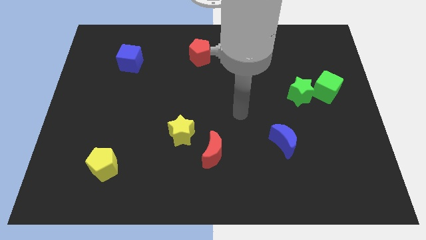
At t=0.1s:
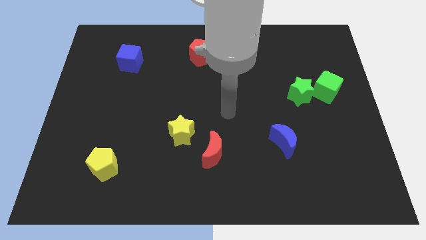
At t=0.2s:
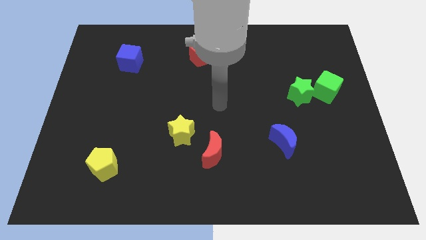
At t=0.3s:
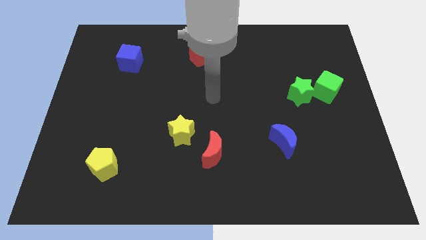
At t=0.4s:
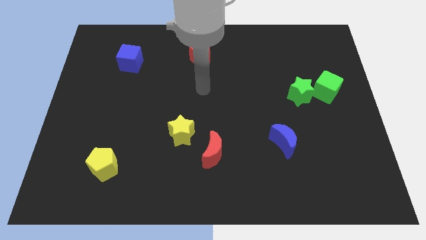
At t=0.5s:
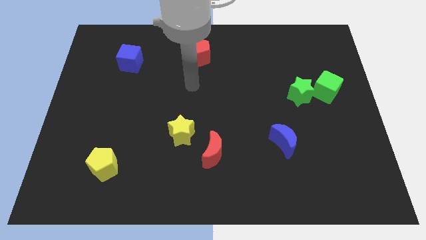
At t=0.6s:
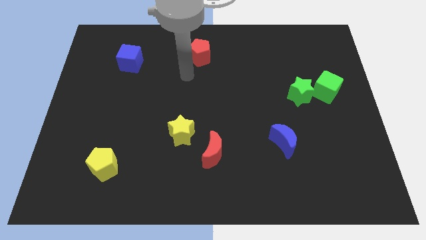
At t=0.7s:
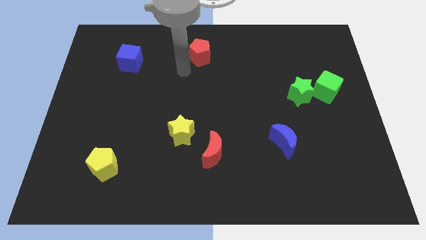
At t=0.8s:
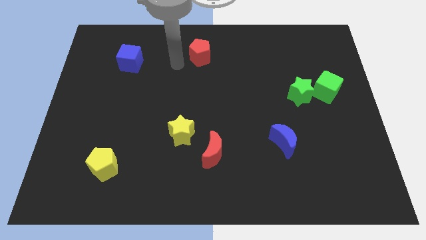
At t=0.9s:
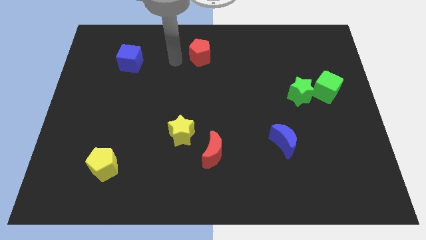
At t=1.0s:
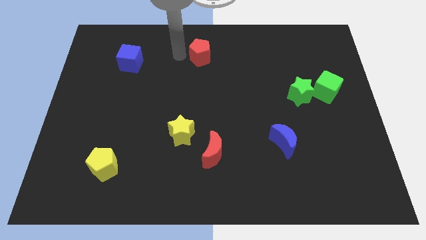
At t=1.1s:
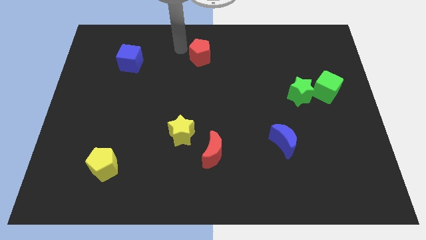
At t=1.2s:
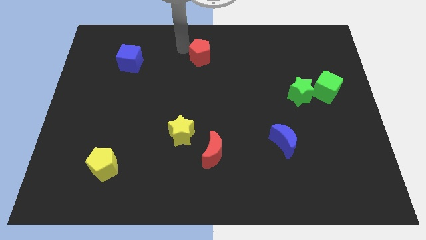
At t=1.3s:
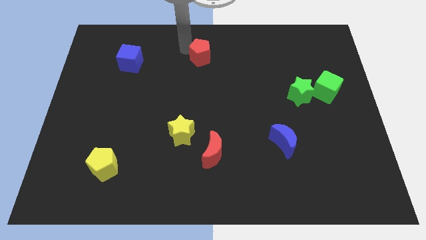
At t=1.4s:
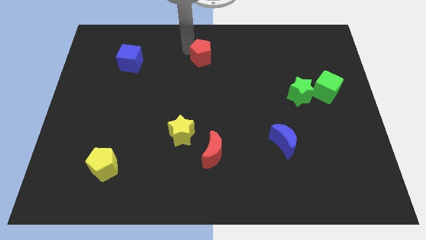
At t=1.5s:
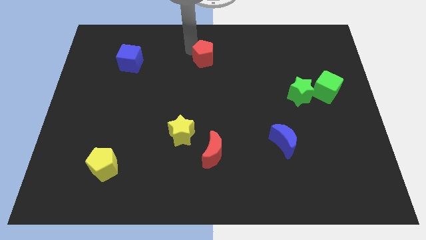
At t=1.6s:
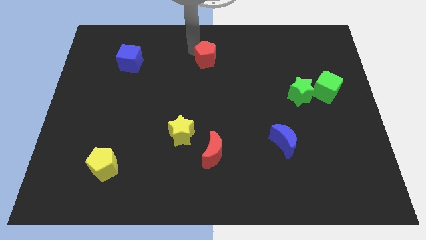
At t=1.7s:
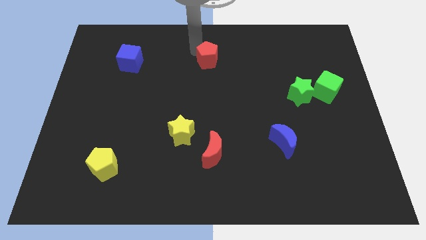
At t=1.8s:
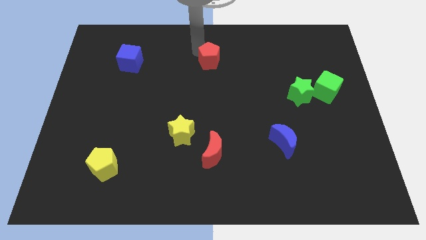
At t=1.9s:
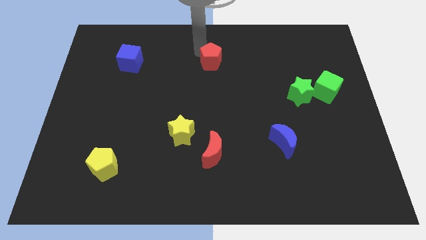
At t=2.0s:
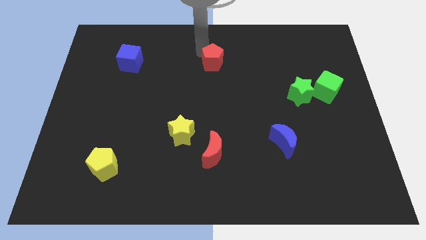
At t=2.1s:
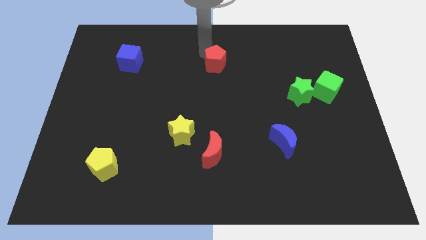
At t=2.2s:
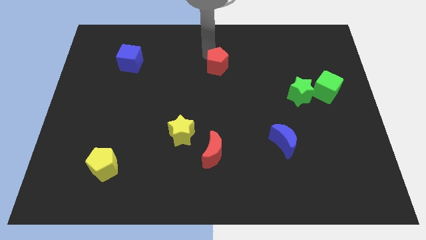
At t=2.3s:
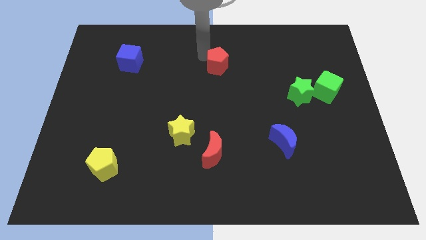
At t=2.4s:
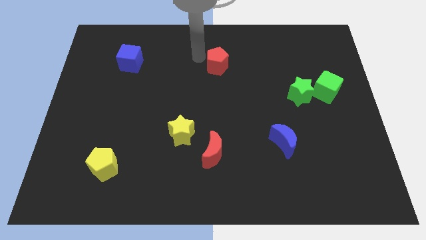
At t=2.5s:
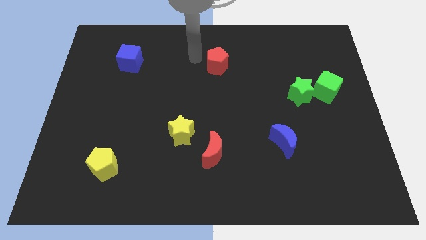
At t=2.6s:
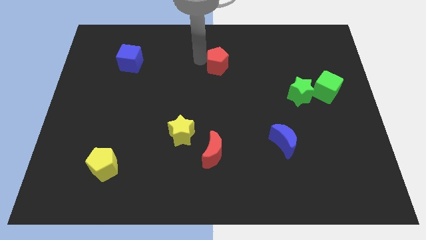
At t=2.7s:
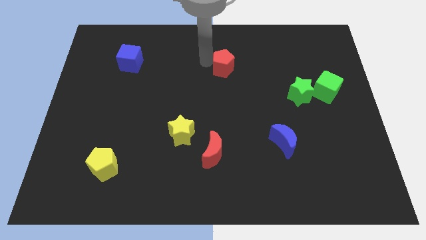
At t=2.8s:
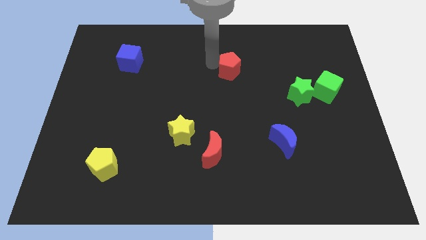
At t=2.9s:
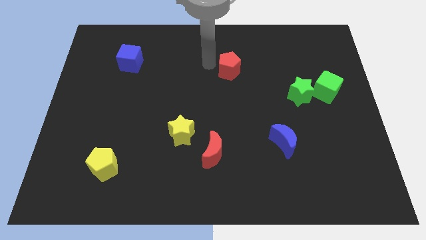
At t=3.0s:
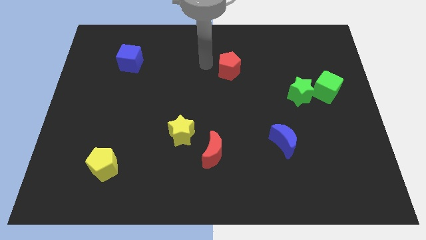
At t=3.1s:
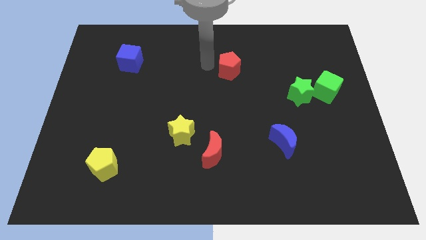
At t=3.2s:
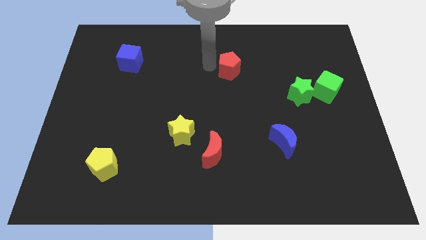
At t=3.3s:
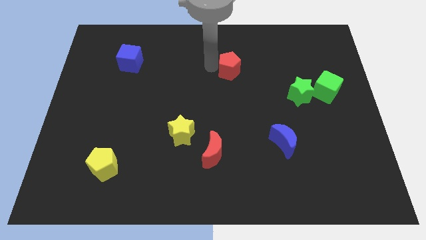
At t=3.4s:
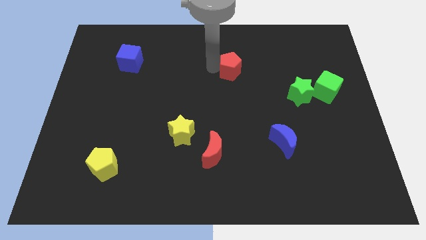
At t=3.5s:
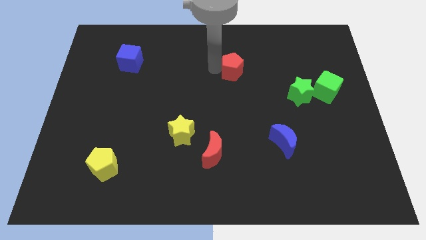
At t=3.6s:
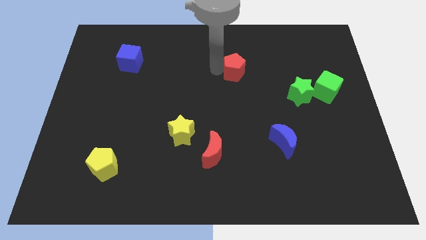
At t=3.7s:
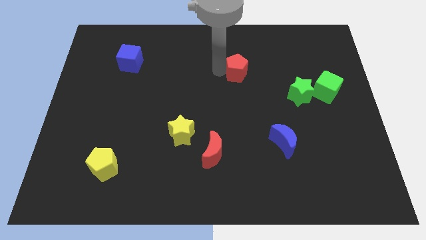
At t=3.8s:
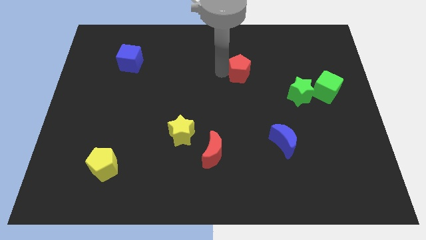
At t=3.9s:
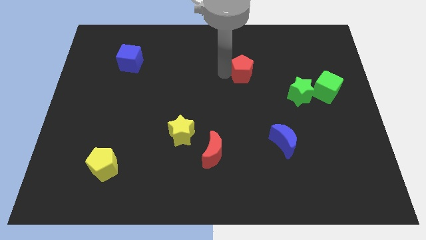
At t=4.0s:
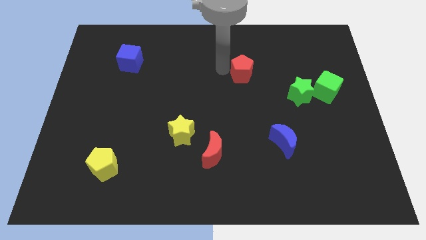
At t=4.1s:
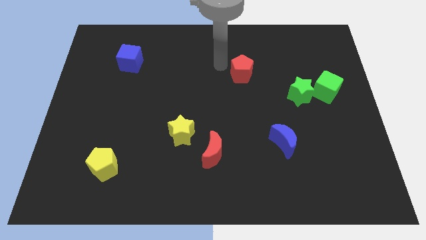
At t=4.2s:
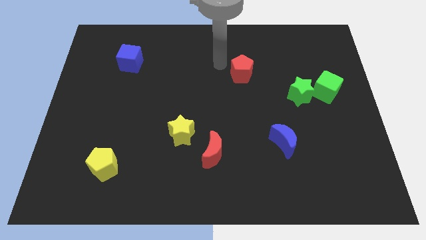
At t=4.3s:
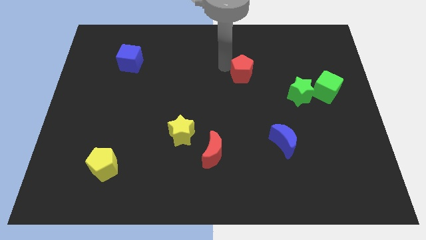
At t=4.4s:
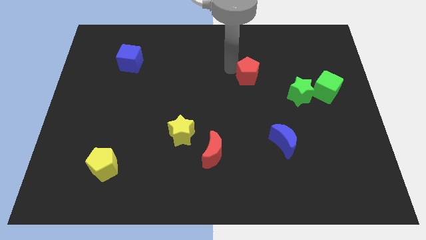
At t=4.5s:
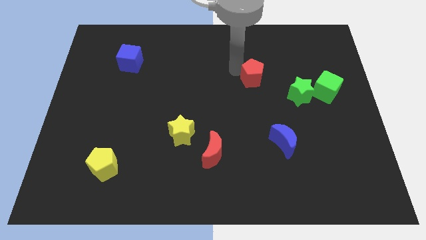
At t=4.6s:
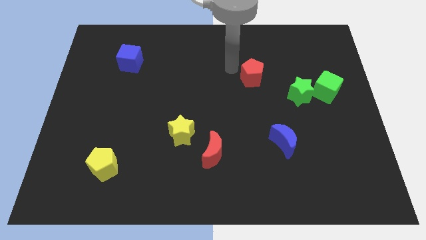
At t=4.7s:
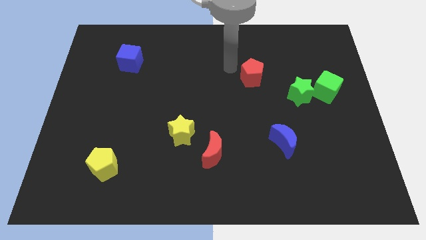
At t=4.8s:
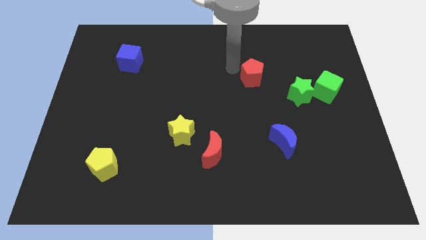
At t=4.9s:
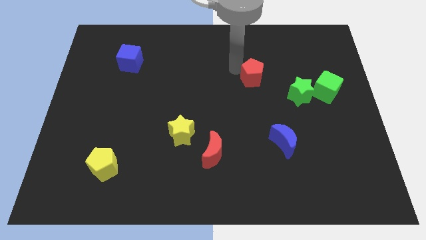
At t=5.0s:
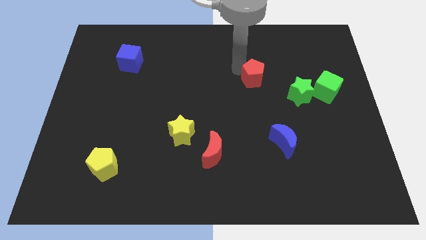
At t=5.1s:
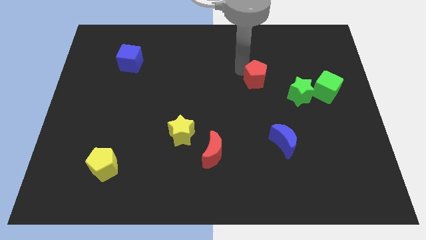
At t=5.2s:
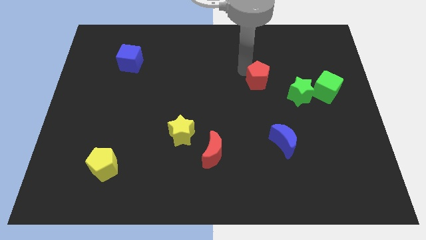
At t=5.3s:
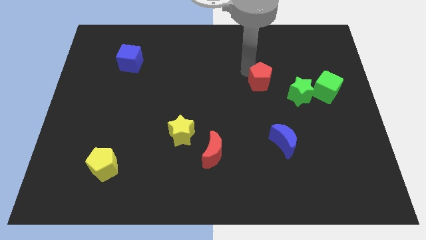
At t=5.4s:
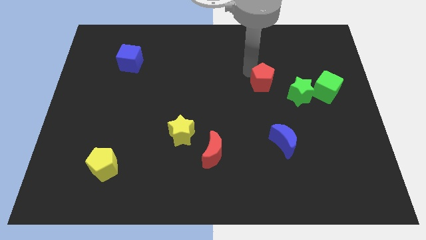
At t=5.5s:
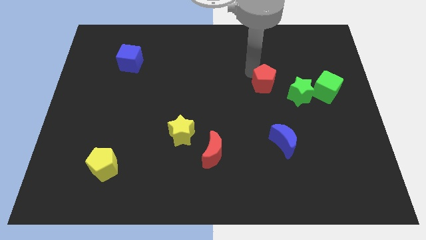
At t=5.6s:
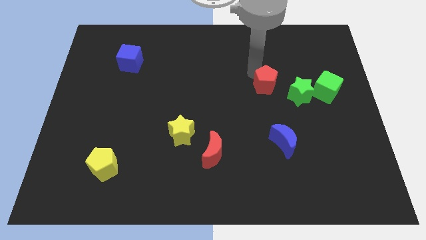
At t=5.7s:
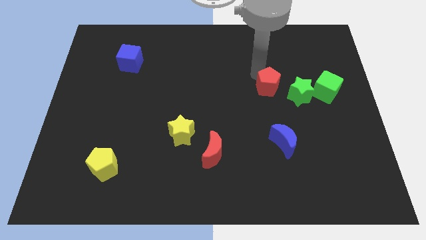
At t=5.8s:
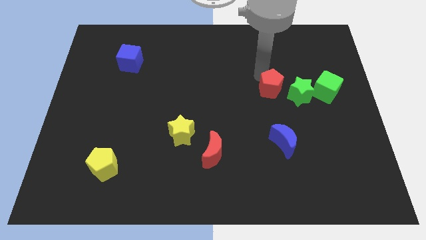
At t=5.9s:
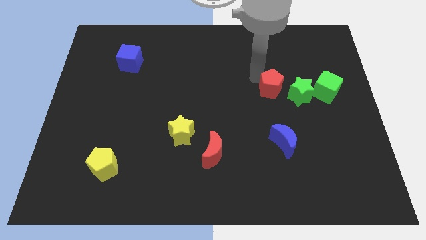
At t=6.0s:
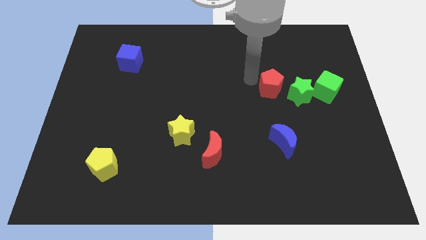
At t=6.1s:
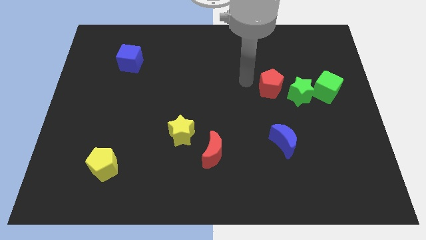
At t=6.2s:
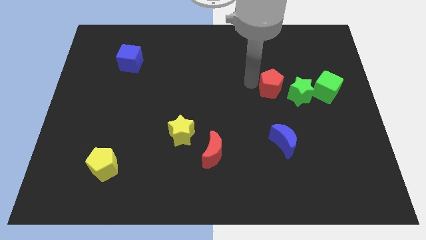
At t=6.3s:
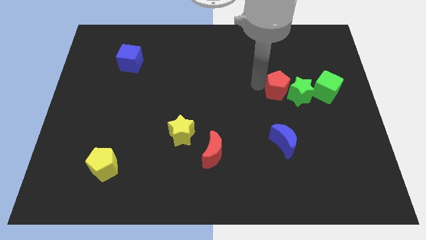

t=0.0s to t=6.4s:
put the red pentagon to the green star

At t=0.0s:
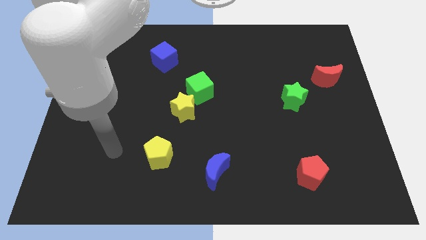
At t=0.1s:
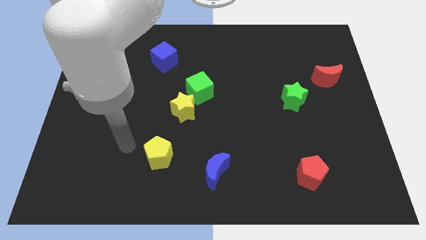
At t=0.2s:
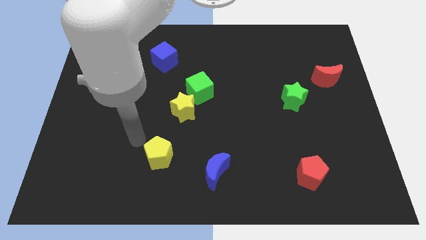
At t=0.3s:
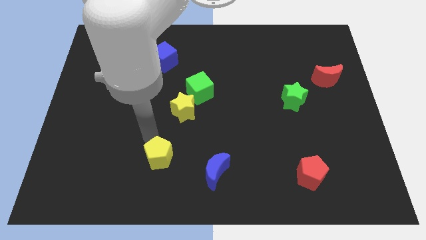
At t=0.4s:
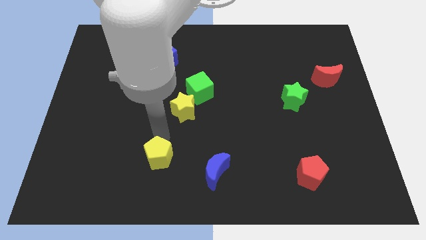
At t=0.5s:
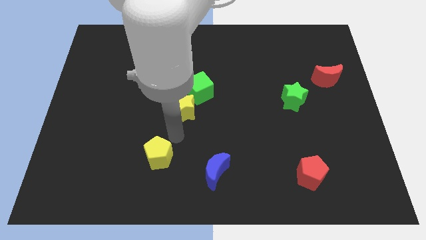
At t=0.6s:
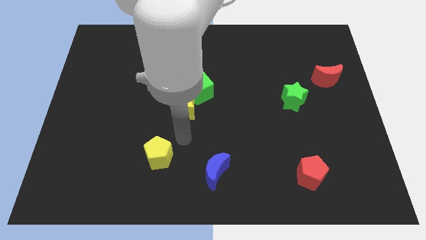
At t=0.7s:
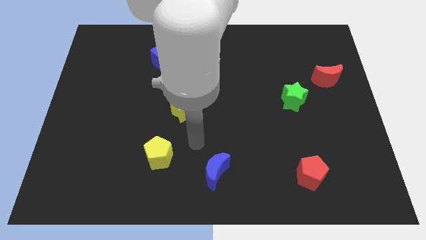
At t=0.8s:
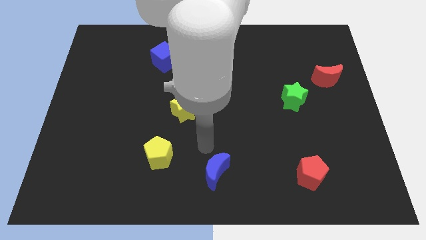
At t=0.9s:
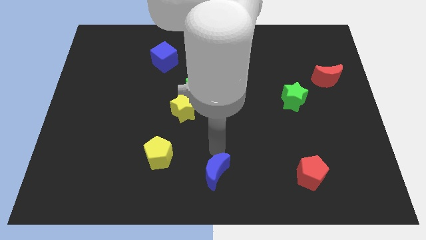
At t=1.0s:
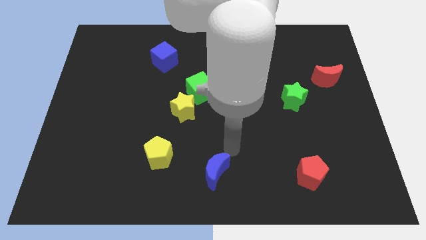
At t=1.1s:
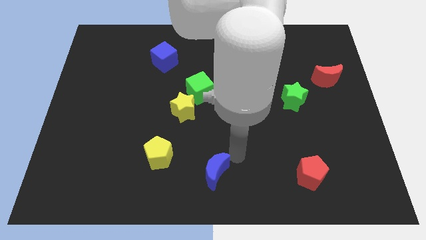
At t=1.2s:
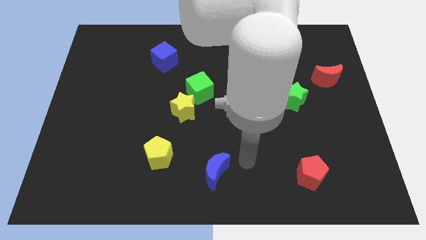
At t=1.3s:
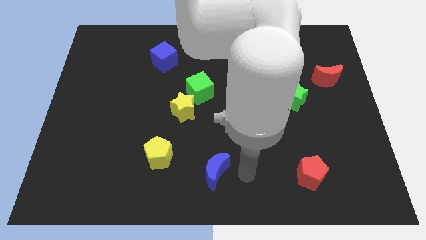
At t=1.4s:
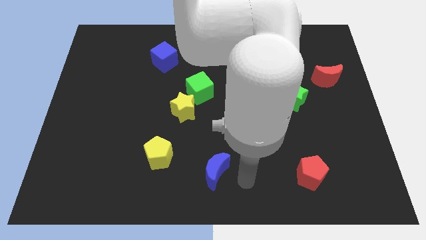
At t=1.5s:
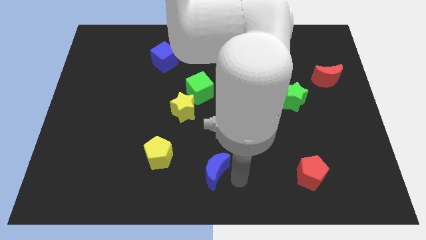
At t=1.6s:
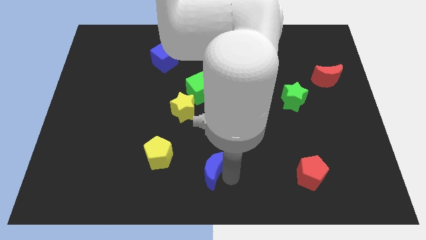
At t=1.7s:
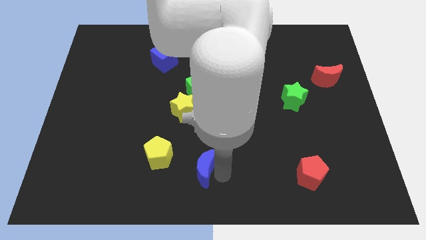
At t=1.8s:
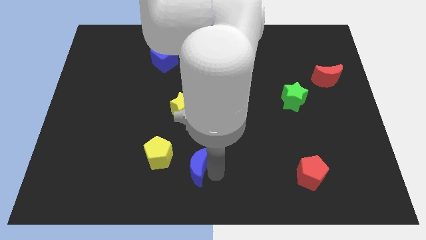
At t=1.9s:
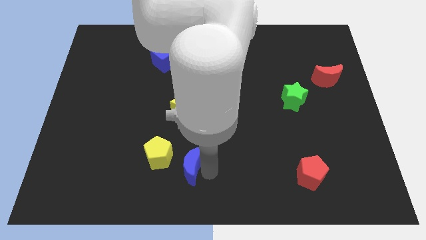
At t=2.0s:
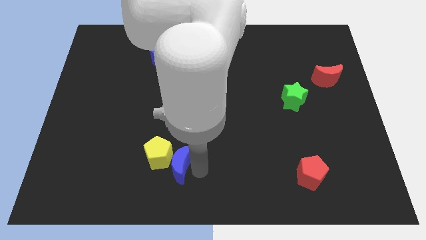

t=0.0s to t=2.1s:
push the blue moon to the yellow pentagon
